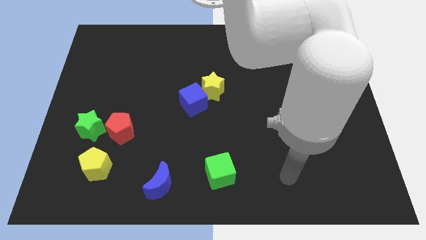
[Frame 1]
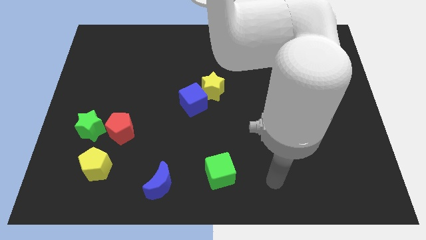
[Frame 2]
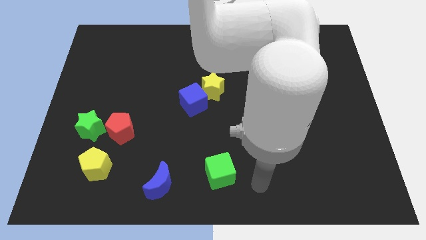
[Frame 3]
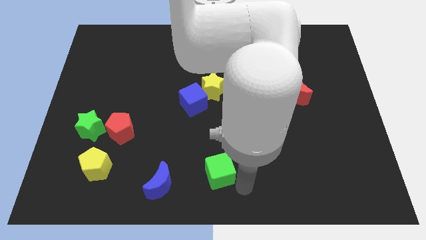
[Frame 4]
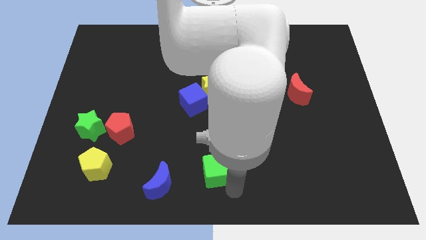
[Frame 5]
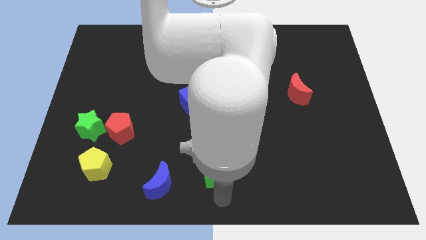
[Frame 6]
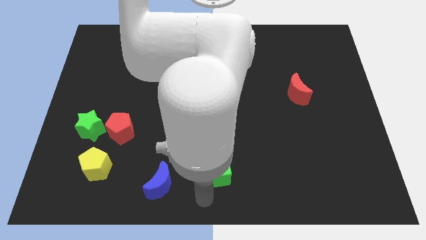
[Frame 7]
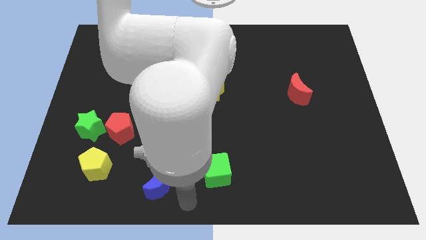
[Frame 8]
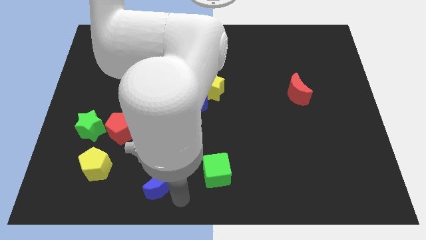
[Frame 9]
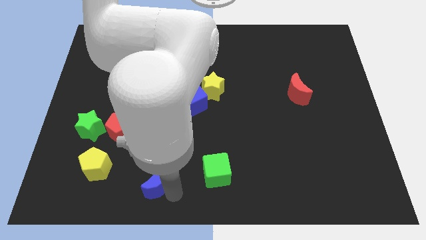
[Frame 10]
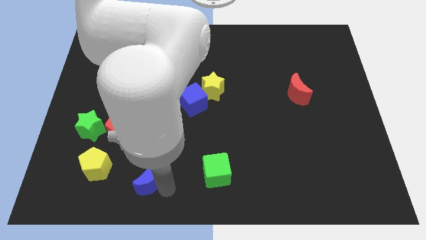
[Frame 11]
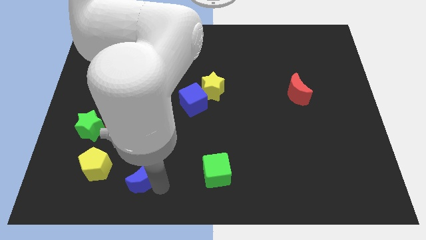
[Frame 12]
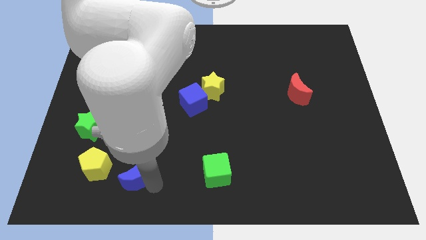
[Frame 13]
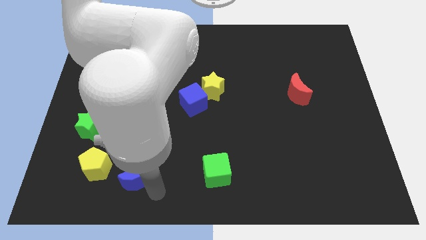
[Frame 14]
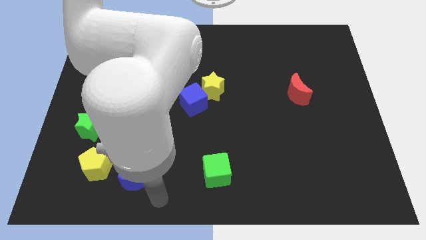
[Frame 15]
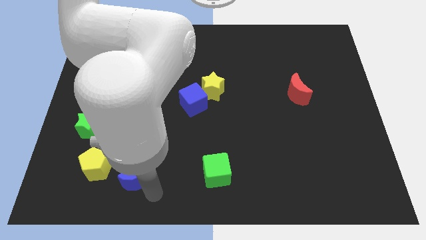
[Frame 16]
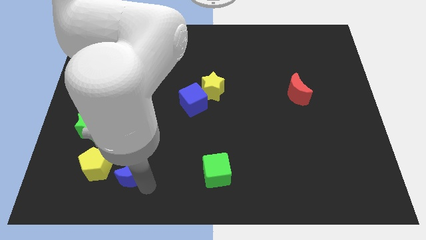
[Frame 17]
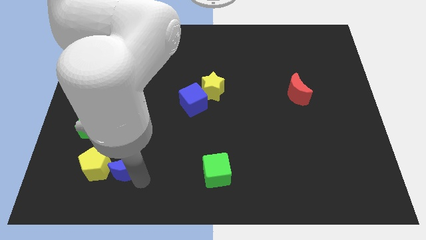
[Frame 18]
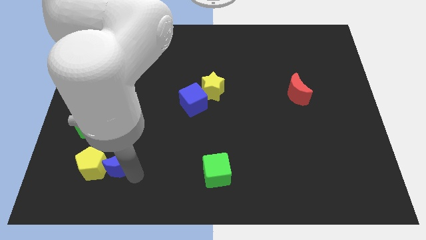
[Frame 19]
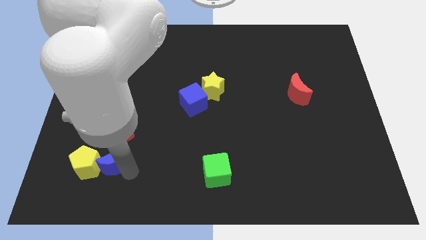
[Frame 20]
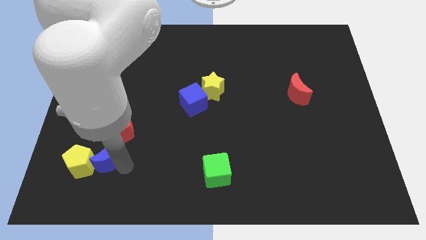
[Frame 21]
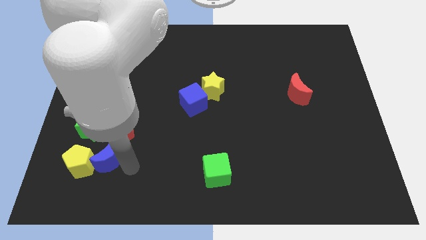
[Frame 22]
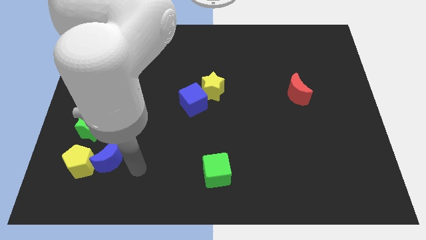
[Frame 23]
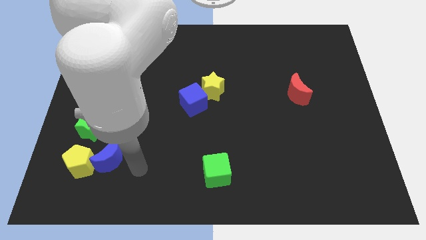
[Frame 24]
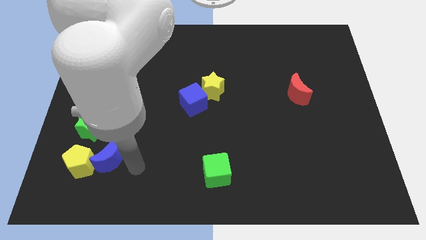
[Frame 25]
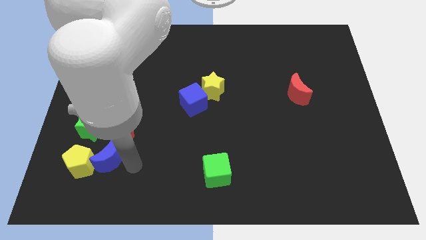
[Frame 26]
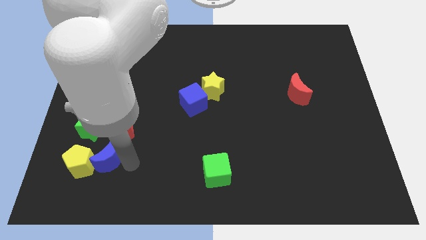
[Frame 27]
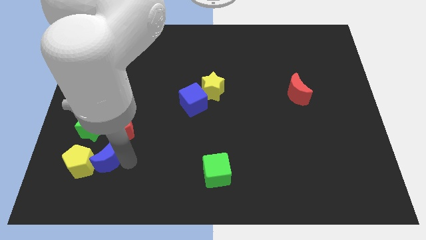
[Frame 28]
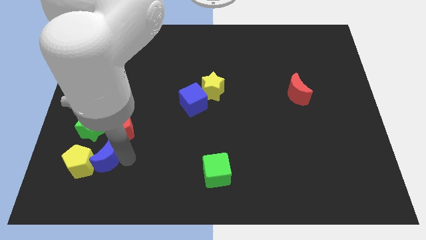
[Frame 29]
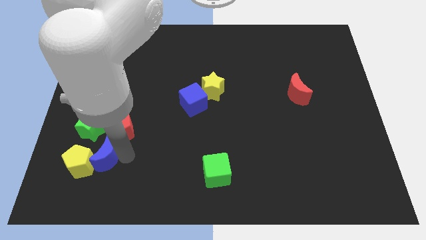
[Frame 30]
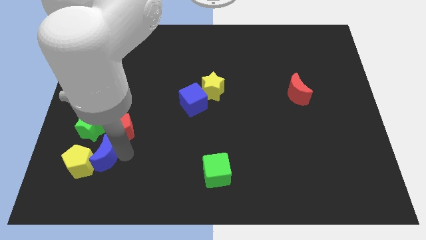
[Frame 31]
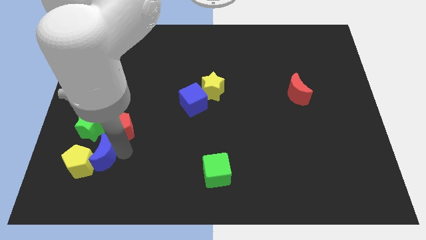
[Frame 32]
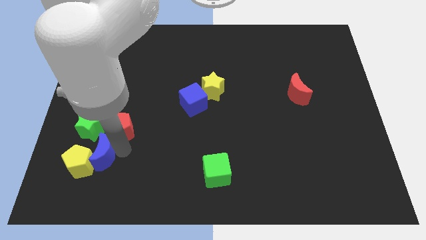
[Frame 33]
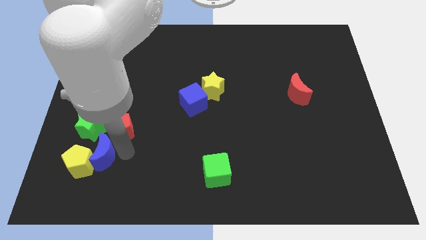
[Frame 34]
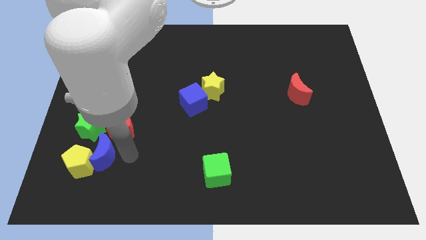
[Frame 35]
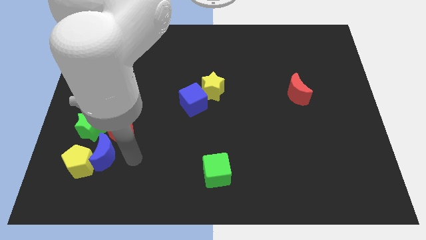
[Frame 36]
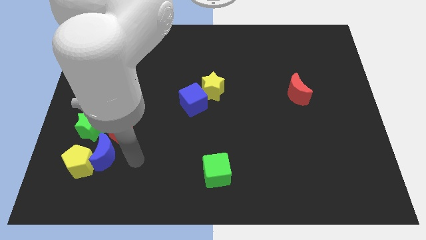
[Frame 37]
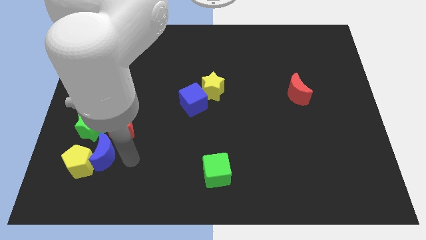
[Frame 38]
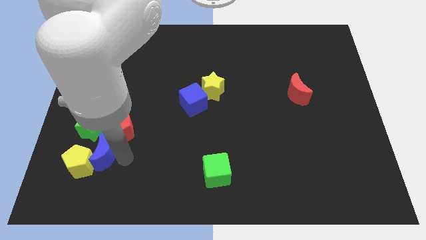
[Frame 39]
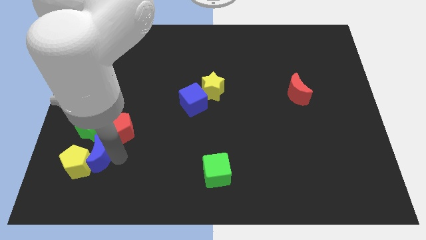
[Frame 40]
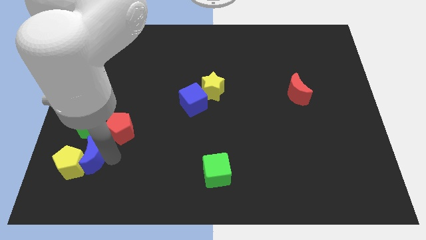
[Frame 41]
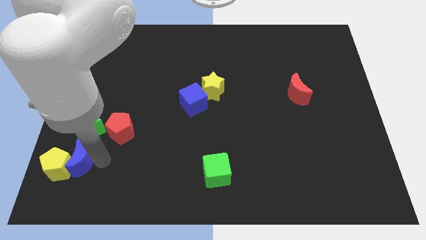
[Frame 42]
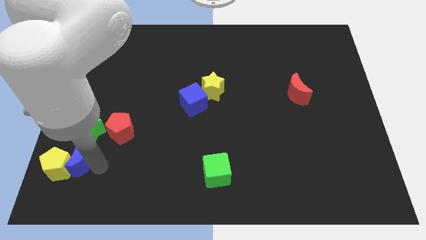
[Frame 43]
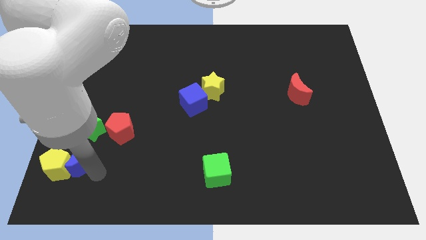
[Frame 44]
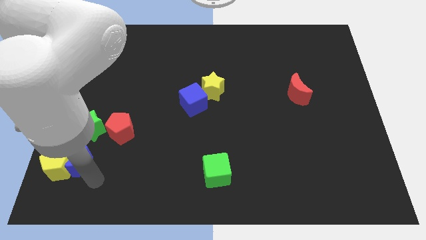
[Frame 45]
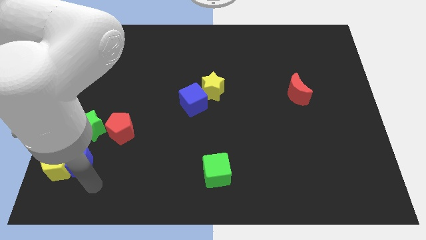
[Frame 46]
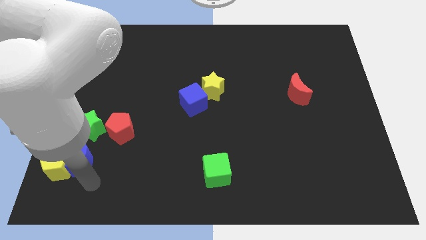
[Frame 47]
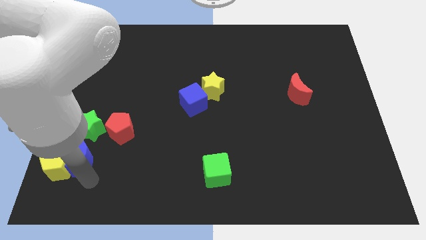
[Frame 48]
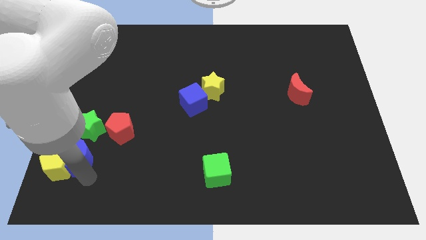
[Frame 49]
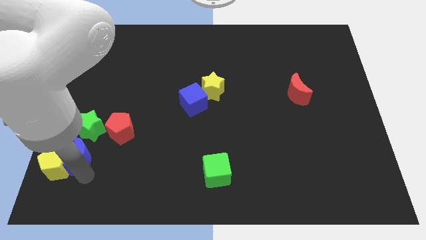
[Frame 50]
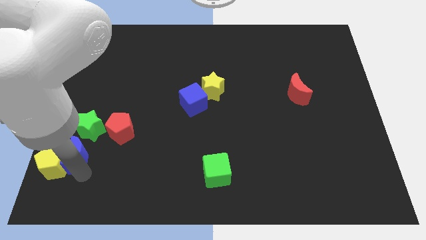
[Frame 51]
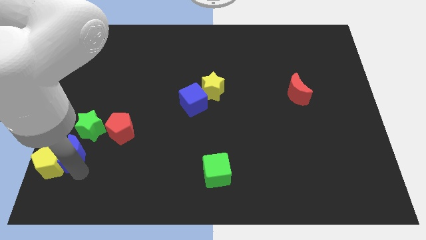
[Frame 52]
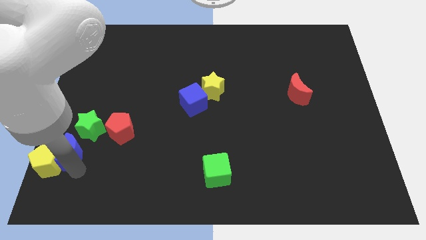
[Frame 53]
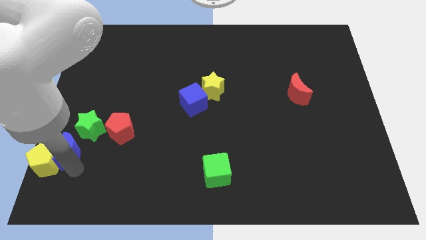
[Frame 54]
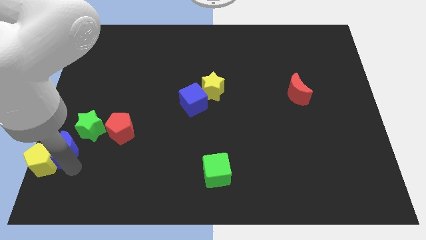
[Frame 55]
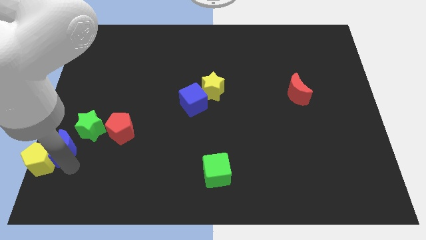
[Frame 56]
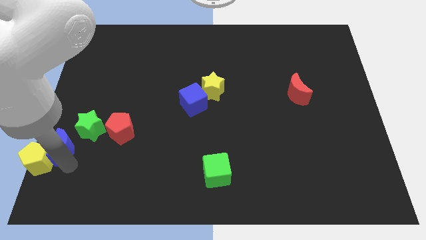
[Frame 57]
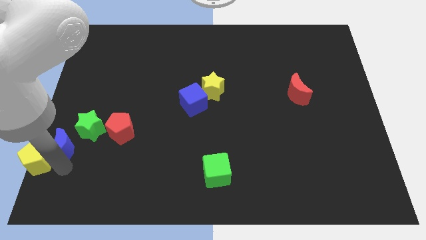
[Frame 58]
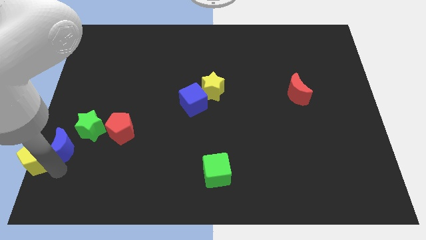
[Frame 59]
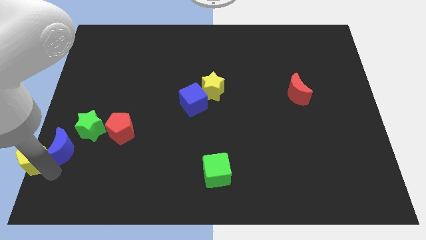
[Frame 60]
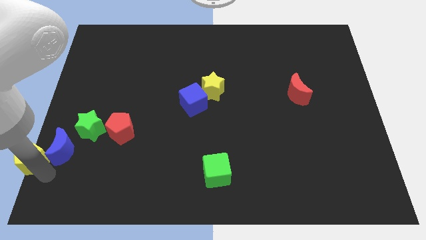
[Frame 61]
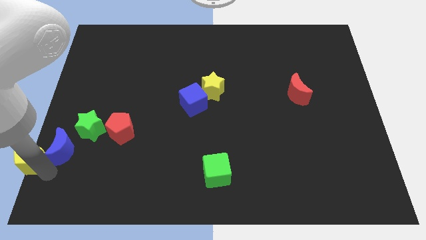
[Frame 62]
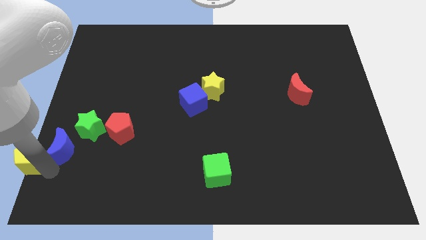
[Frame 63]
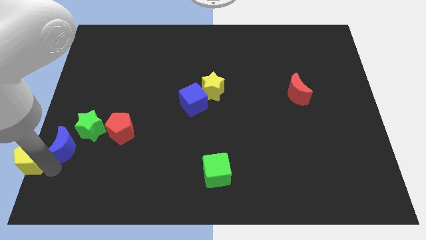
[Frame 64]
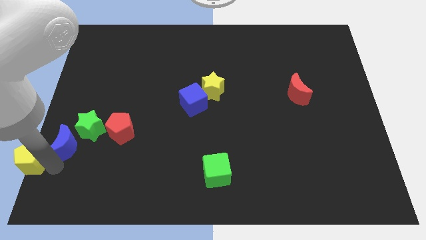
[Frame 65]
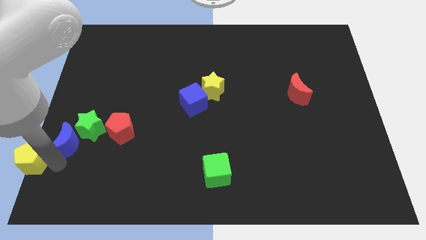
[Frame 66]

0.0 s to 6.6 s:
move the blue moon to the center left
